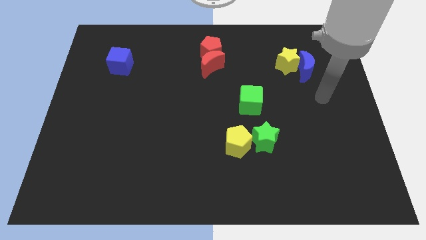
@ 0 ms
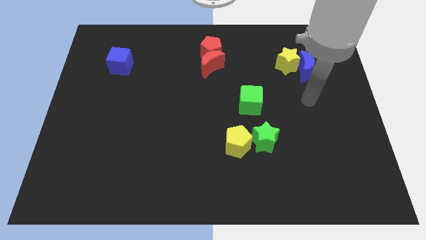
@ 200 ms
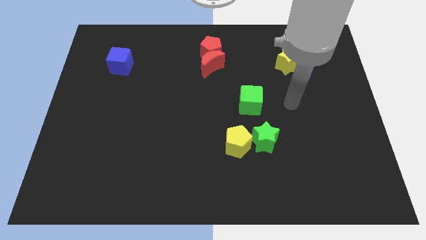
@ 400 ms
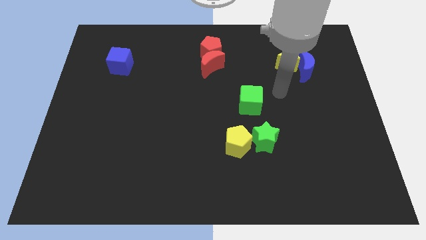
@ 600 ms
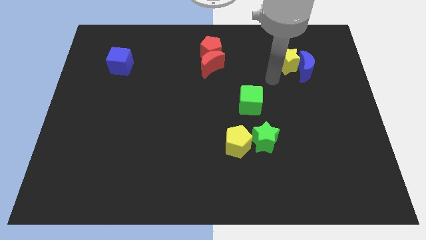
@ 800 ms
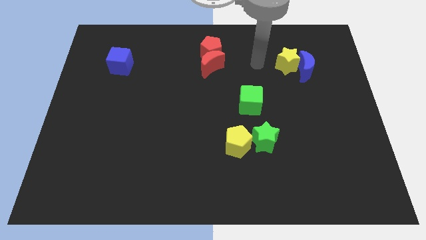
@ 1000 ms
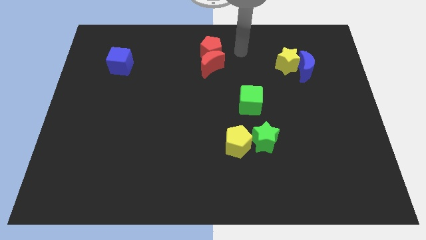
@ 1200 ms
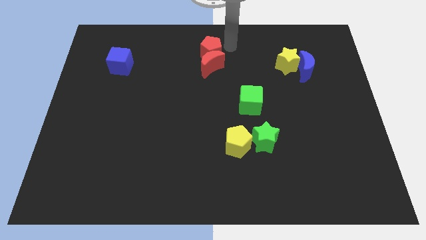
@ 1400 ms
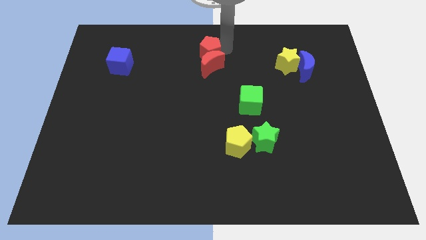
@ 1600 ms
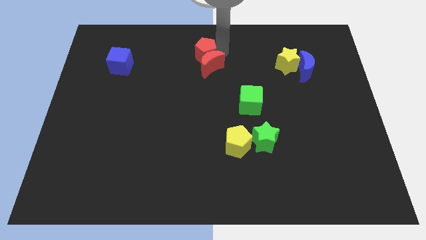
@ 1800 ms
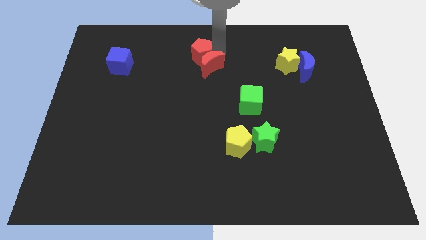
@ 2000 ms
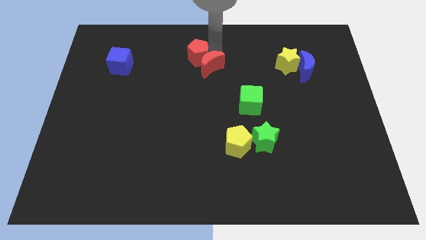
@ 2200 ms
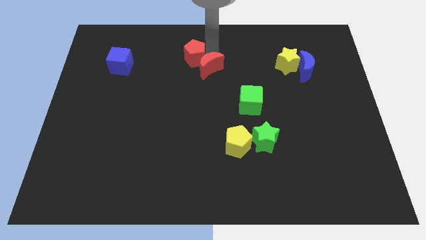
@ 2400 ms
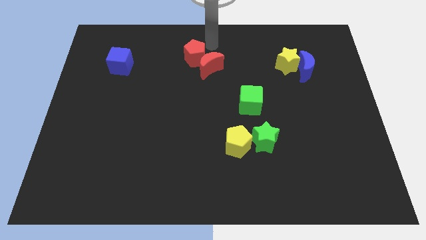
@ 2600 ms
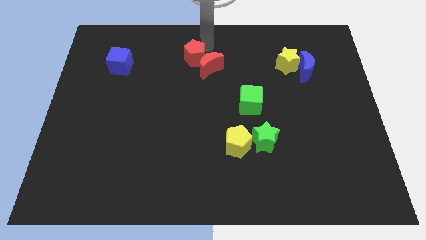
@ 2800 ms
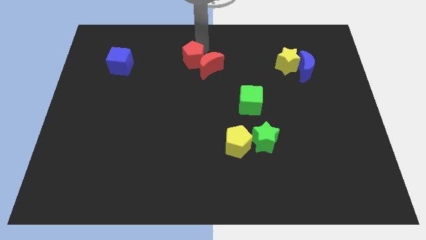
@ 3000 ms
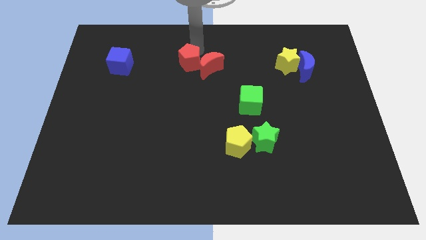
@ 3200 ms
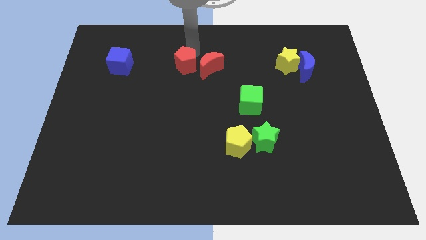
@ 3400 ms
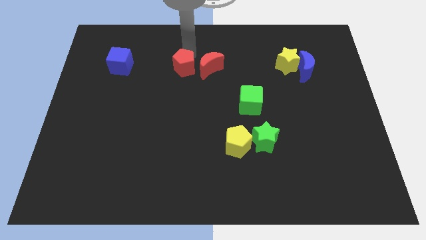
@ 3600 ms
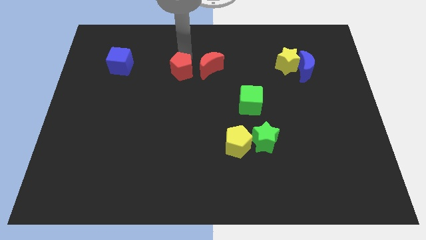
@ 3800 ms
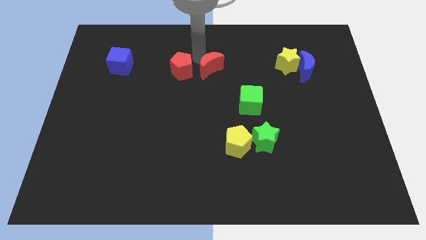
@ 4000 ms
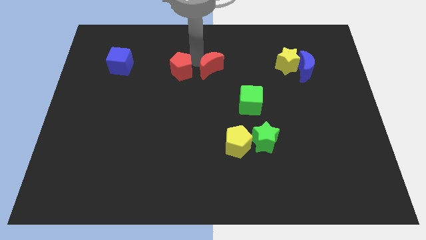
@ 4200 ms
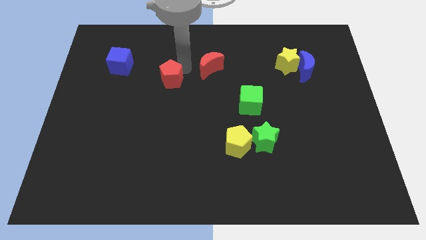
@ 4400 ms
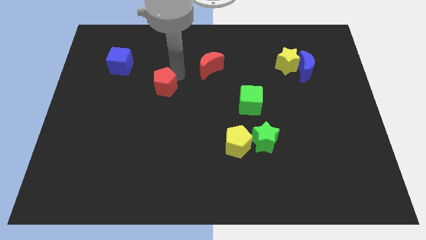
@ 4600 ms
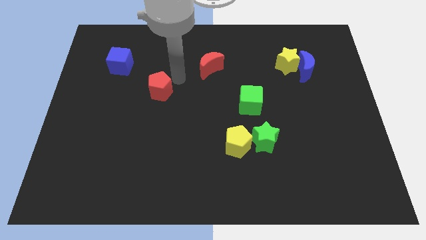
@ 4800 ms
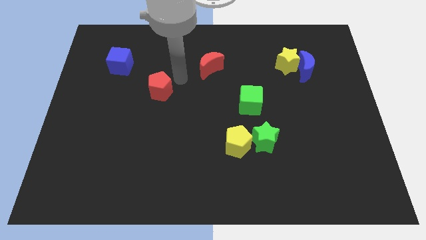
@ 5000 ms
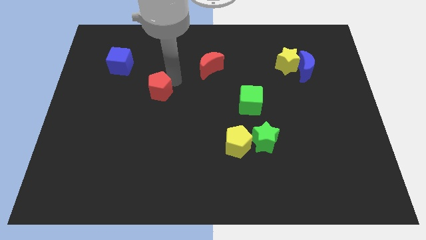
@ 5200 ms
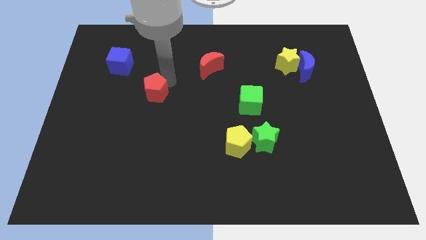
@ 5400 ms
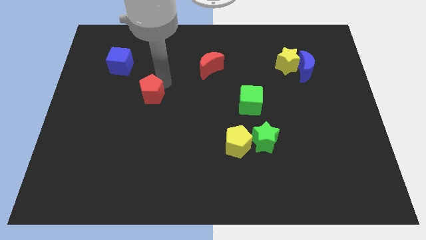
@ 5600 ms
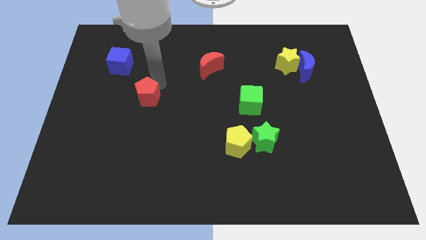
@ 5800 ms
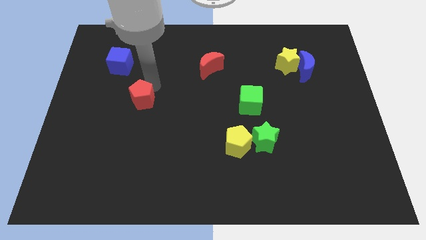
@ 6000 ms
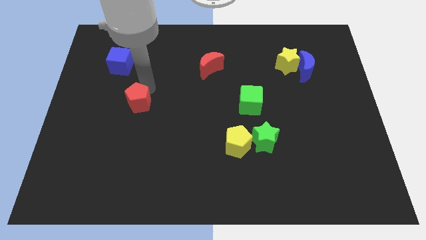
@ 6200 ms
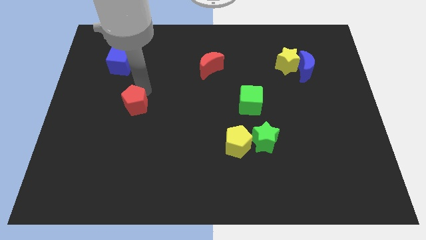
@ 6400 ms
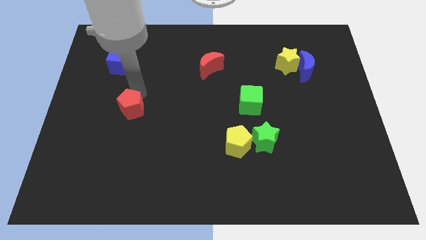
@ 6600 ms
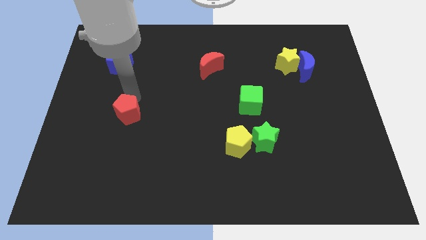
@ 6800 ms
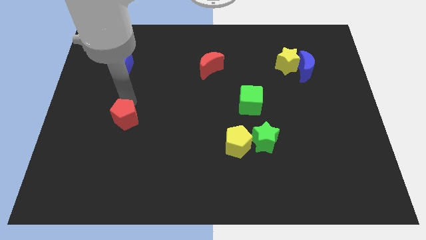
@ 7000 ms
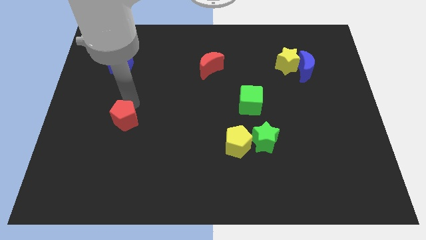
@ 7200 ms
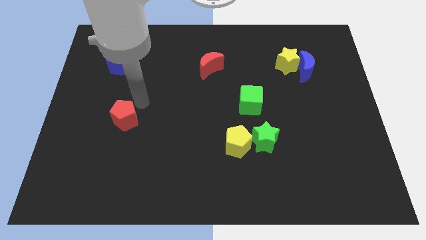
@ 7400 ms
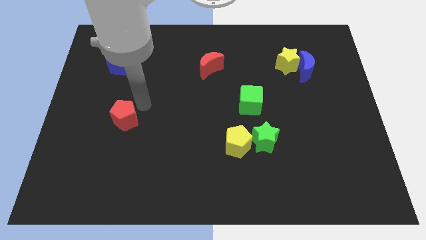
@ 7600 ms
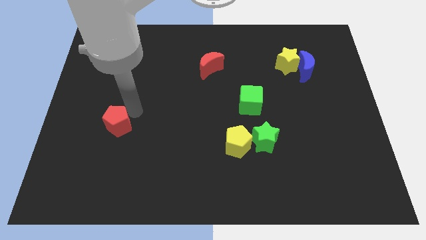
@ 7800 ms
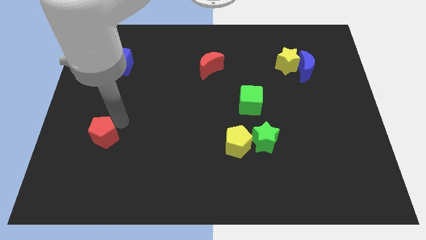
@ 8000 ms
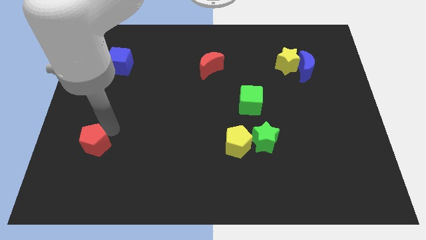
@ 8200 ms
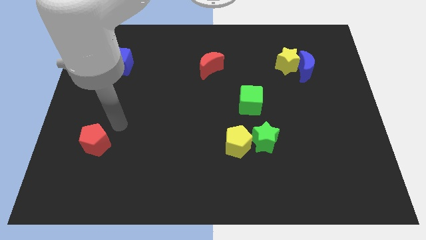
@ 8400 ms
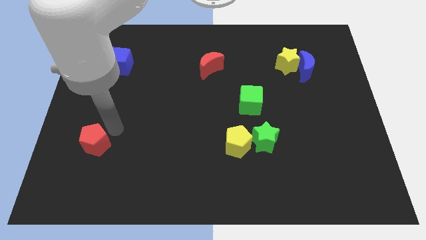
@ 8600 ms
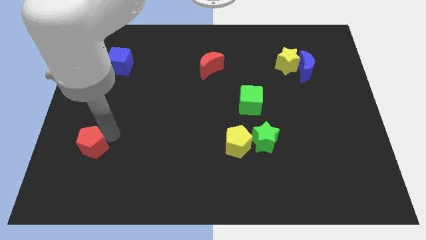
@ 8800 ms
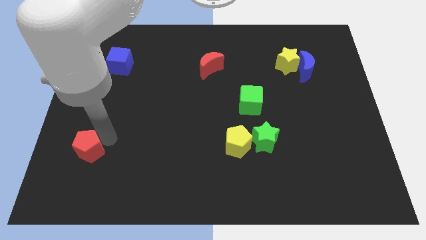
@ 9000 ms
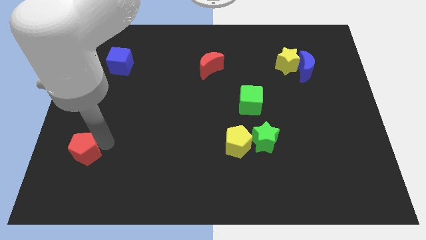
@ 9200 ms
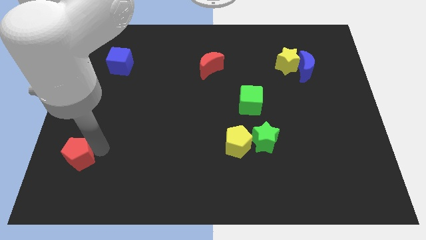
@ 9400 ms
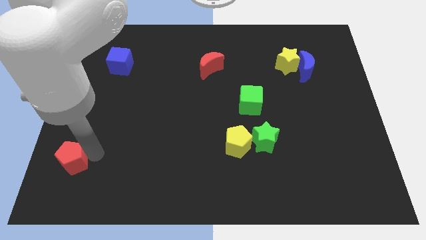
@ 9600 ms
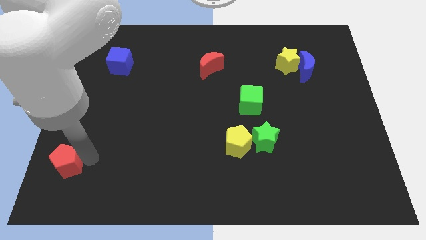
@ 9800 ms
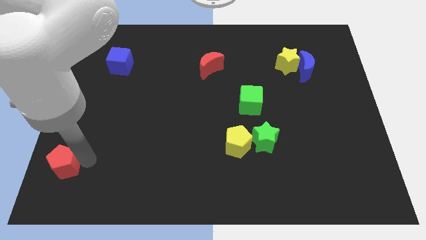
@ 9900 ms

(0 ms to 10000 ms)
slide the red pentagon to the bottom left of the board
